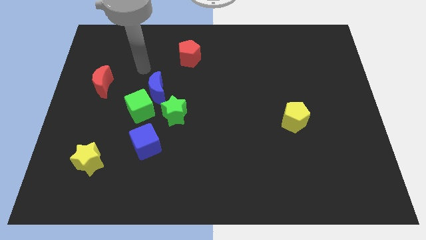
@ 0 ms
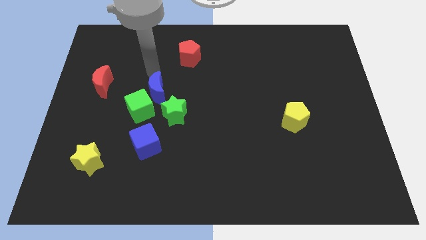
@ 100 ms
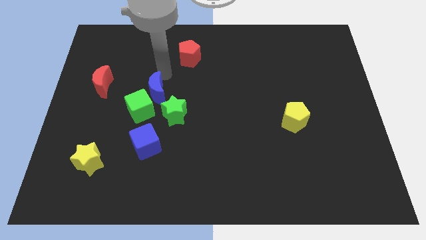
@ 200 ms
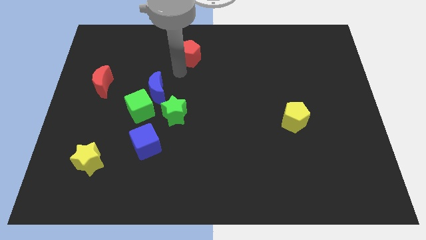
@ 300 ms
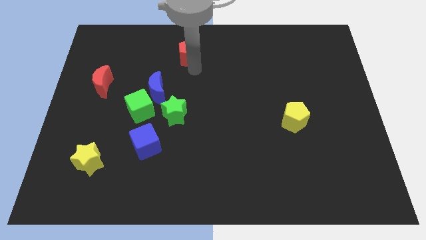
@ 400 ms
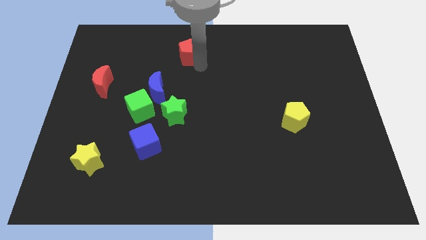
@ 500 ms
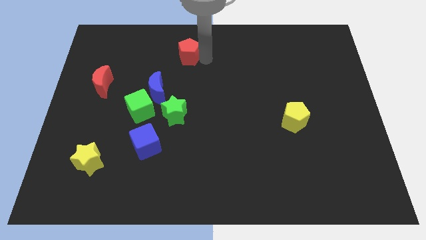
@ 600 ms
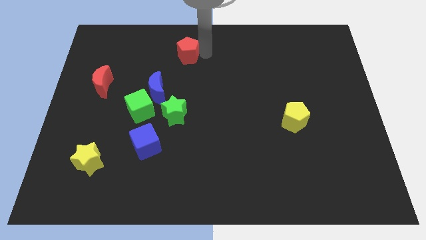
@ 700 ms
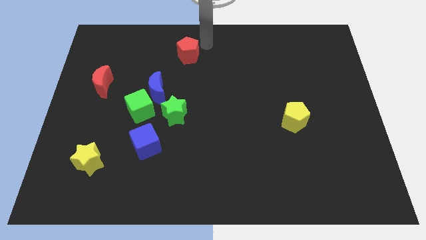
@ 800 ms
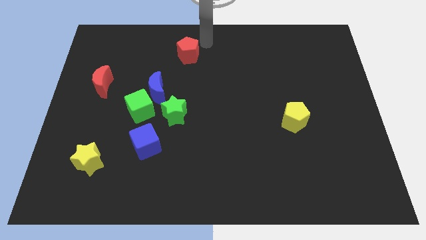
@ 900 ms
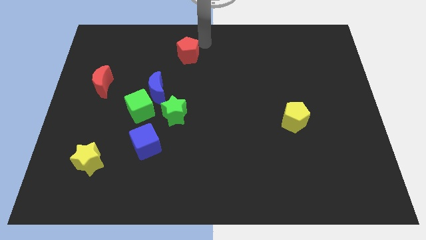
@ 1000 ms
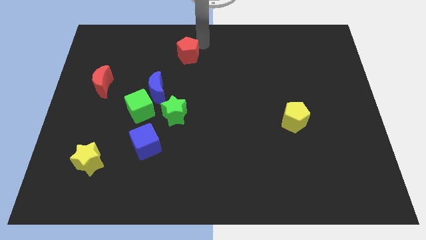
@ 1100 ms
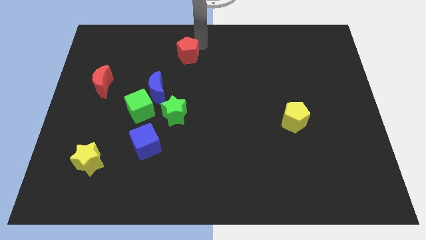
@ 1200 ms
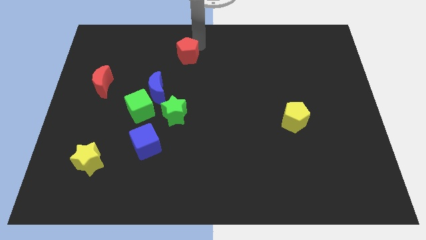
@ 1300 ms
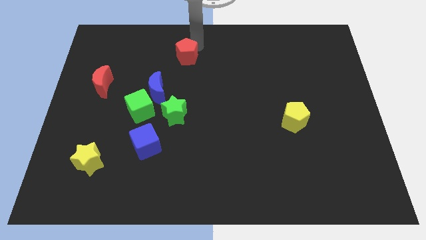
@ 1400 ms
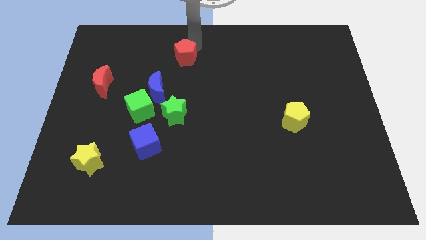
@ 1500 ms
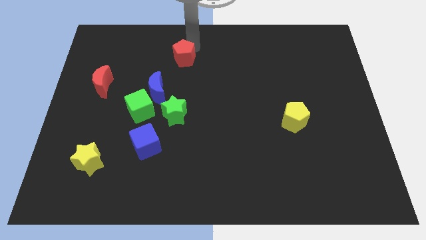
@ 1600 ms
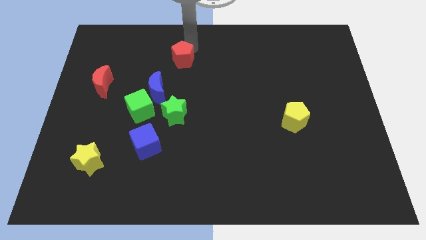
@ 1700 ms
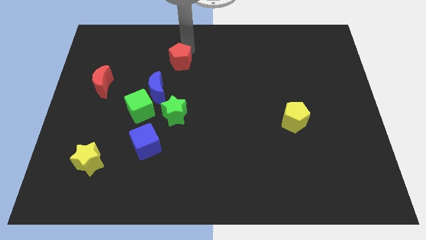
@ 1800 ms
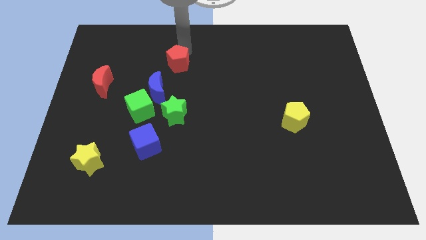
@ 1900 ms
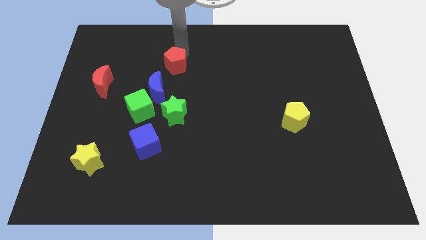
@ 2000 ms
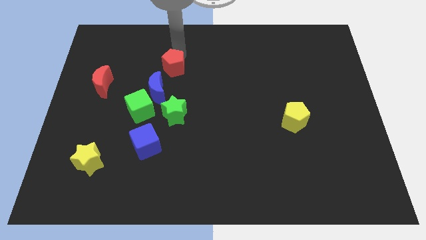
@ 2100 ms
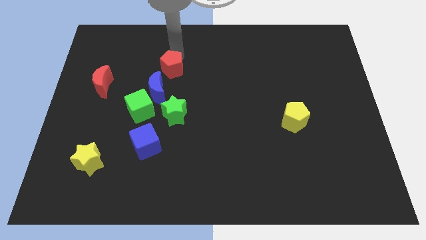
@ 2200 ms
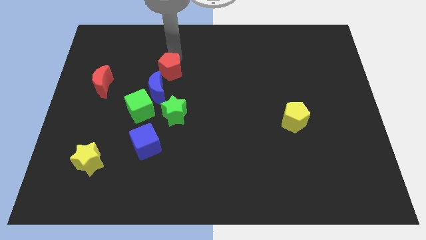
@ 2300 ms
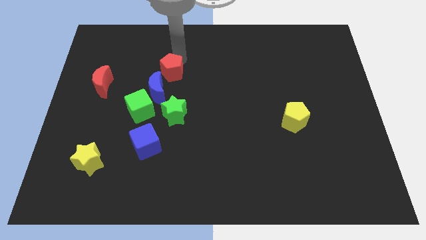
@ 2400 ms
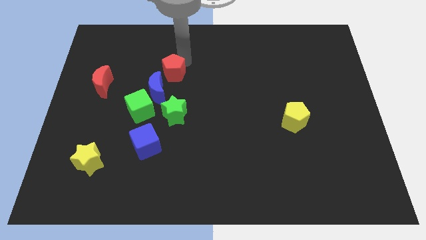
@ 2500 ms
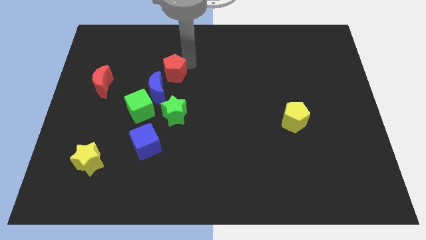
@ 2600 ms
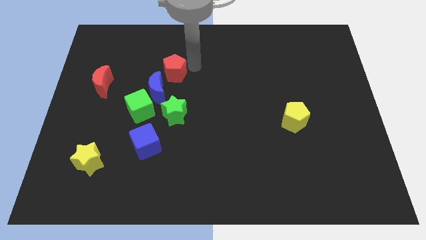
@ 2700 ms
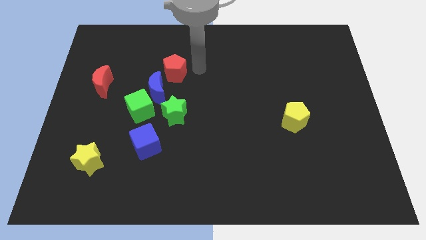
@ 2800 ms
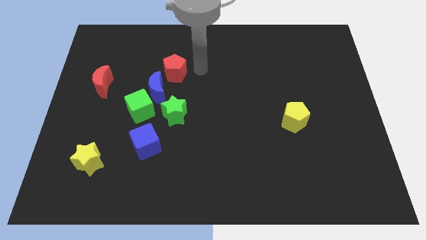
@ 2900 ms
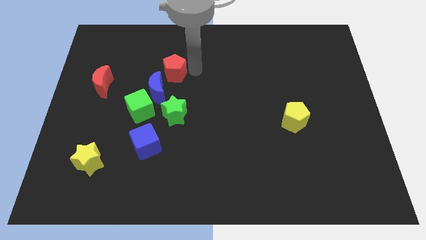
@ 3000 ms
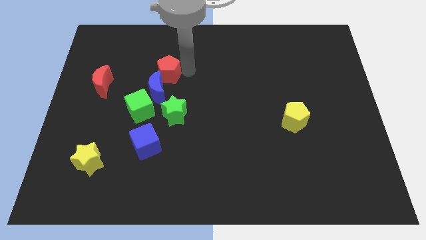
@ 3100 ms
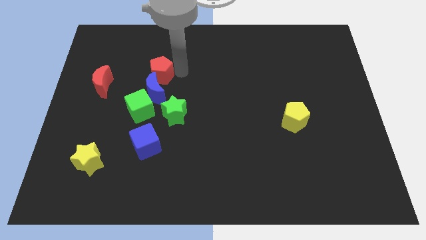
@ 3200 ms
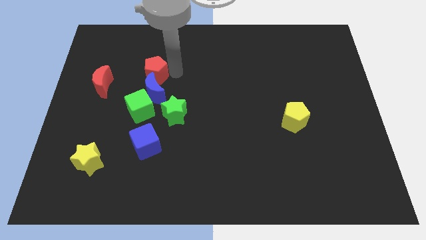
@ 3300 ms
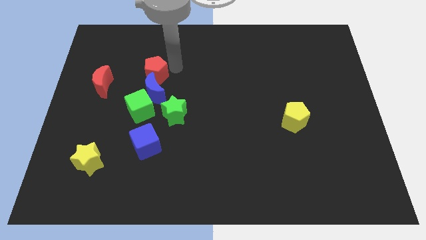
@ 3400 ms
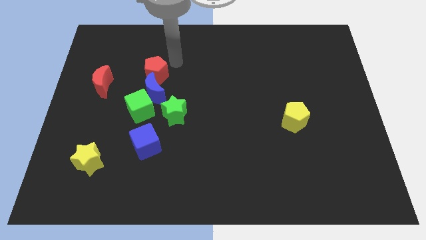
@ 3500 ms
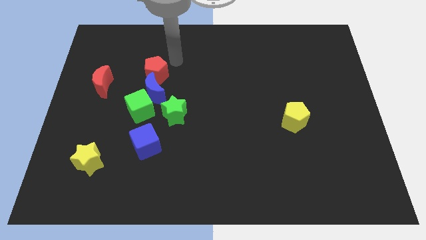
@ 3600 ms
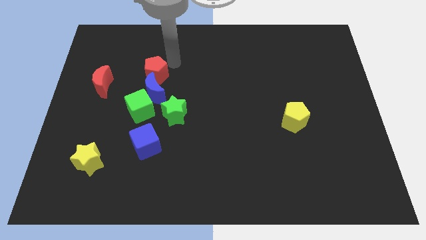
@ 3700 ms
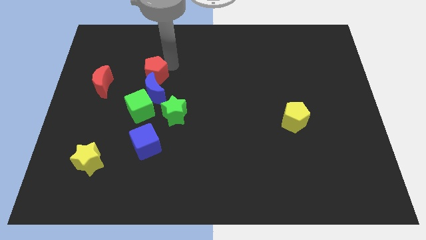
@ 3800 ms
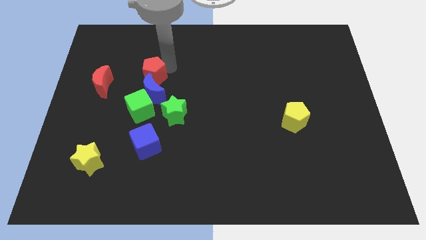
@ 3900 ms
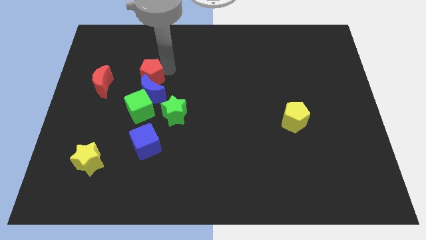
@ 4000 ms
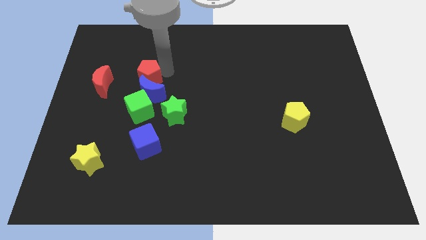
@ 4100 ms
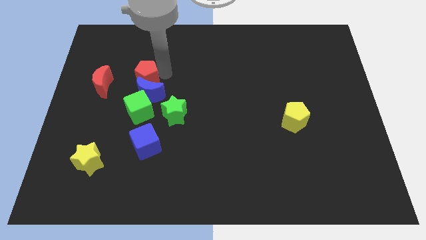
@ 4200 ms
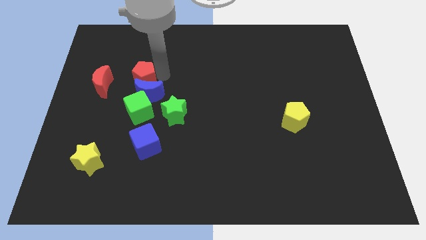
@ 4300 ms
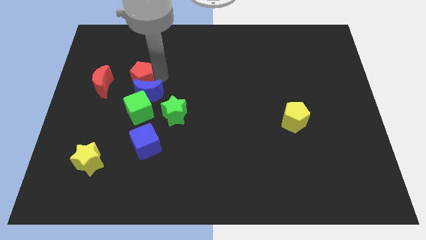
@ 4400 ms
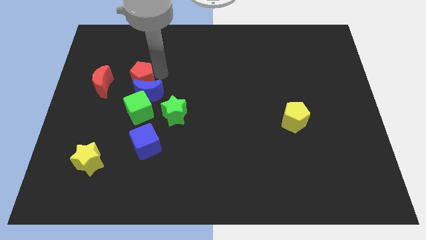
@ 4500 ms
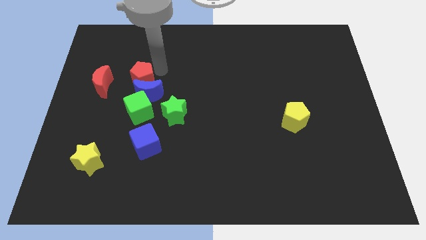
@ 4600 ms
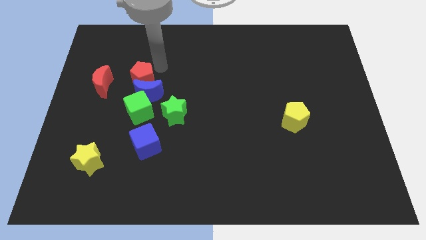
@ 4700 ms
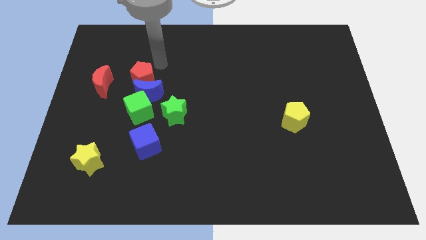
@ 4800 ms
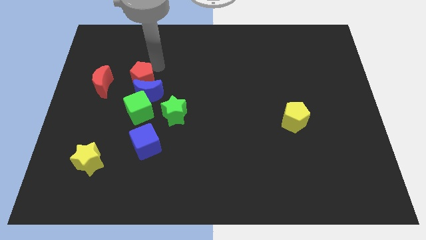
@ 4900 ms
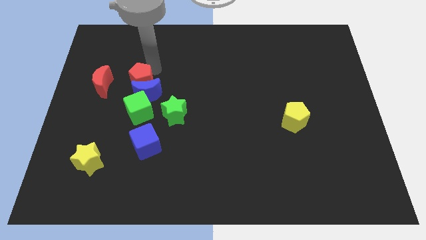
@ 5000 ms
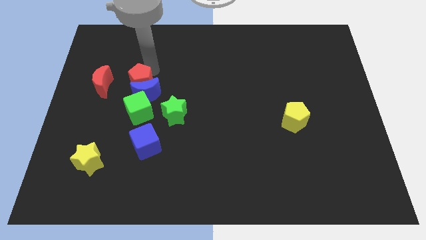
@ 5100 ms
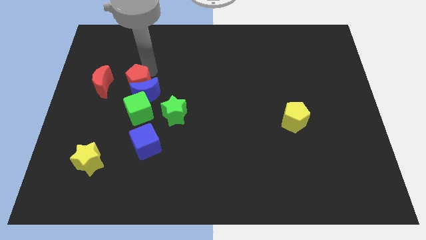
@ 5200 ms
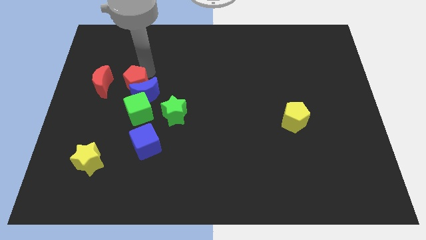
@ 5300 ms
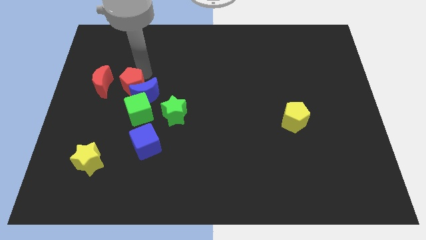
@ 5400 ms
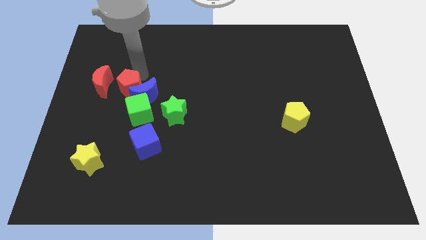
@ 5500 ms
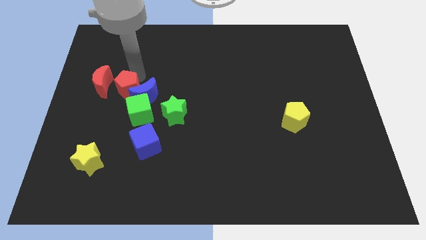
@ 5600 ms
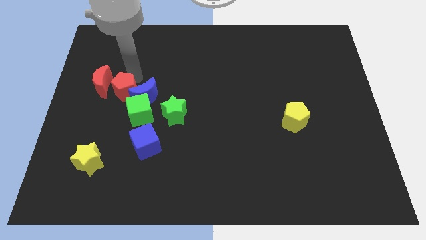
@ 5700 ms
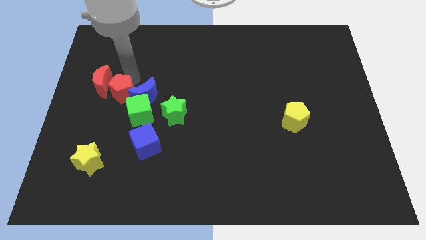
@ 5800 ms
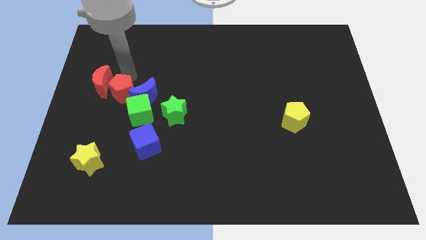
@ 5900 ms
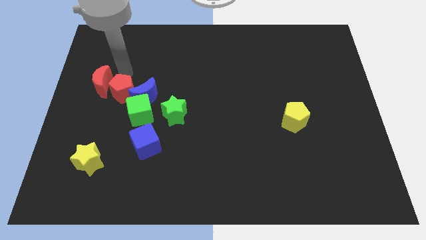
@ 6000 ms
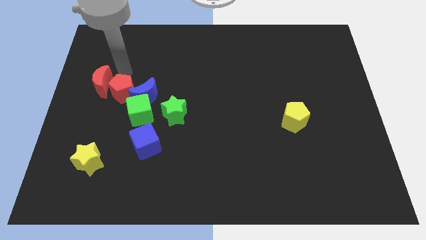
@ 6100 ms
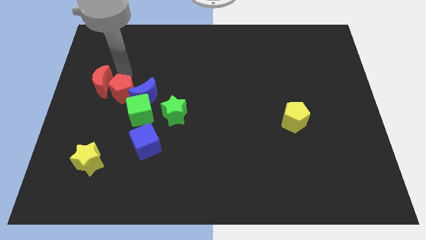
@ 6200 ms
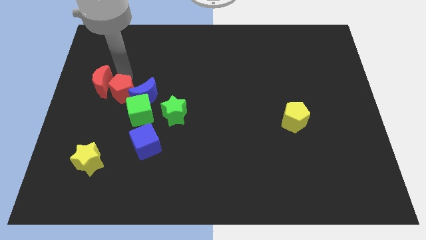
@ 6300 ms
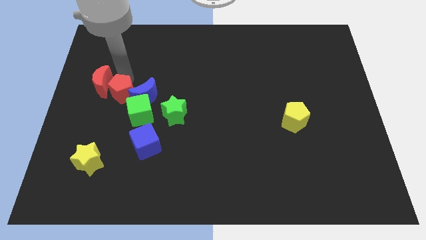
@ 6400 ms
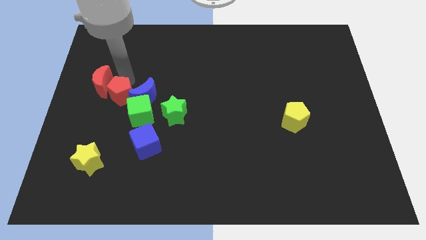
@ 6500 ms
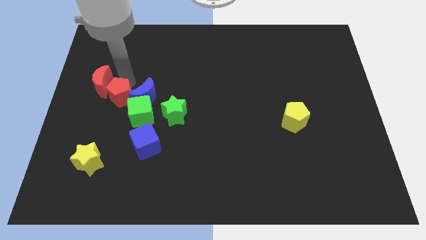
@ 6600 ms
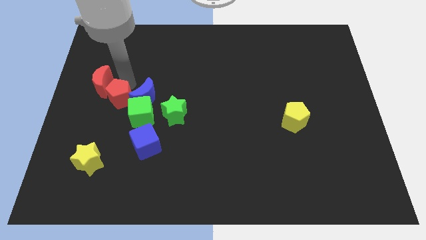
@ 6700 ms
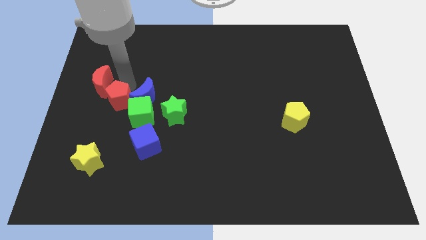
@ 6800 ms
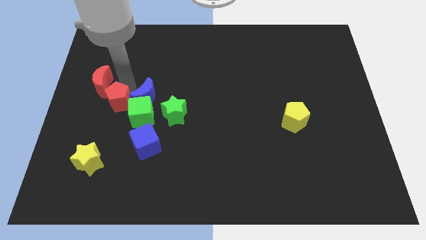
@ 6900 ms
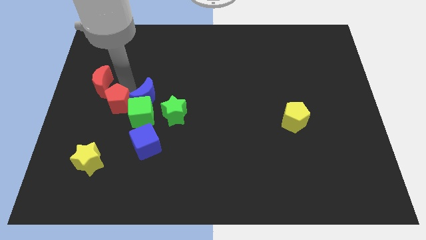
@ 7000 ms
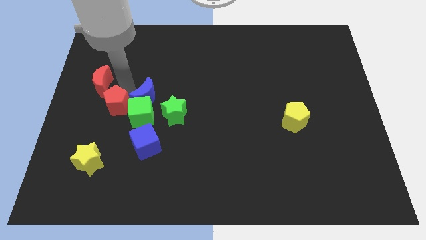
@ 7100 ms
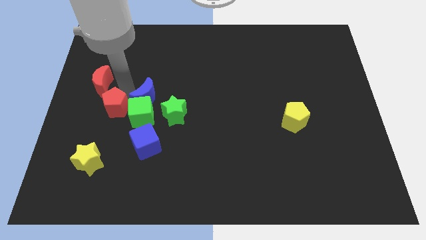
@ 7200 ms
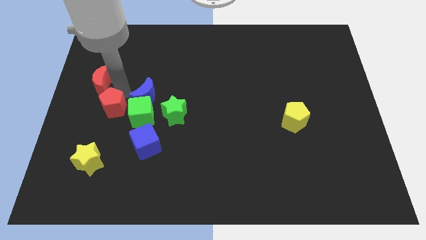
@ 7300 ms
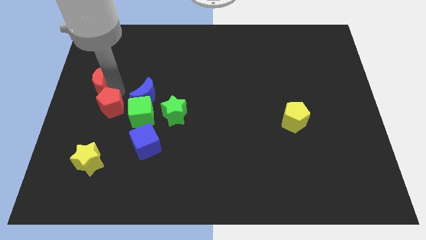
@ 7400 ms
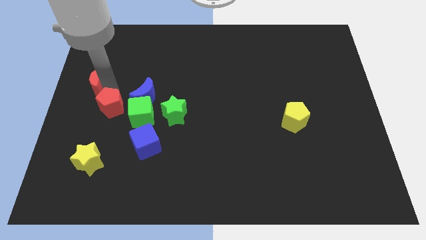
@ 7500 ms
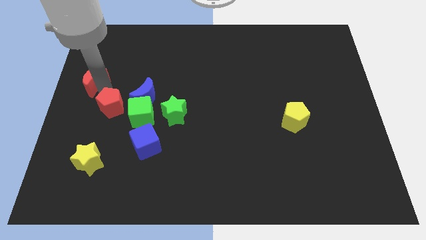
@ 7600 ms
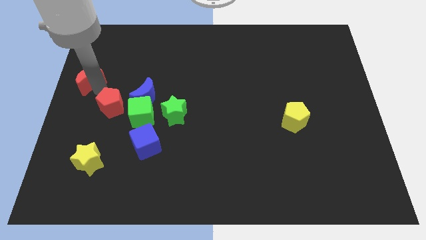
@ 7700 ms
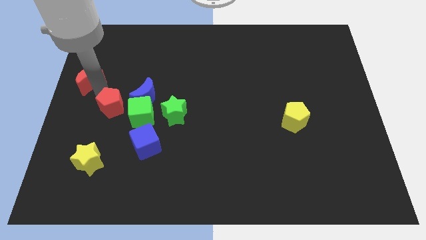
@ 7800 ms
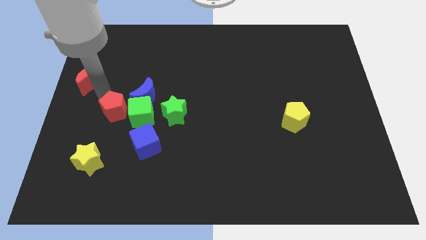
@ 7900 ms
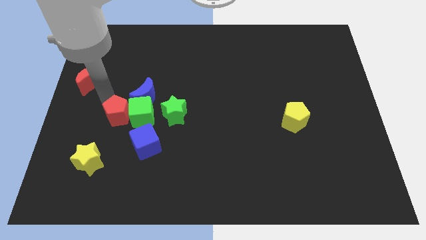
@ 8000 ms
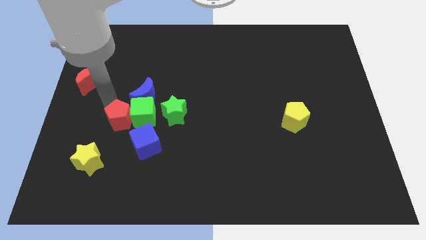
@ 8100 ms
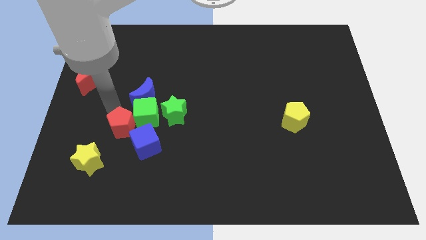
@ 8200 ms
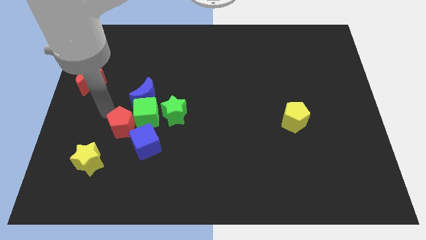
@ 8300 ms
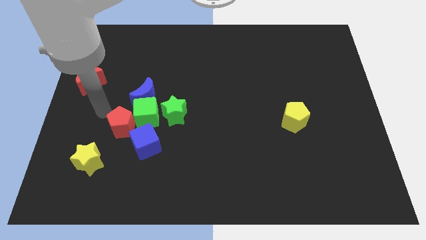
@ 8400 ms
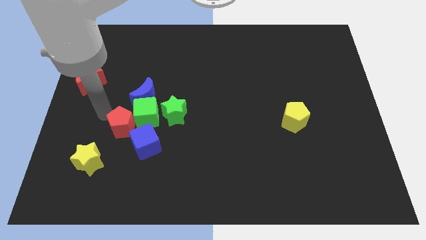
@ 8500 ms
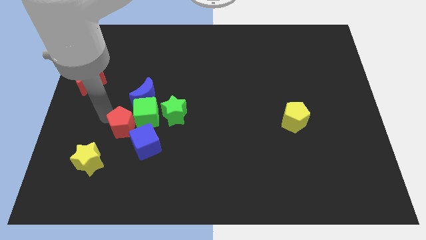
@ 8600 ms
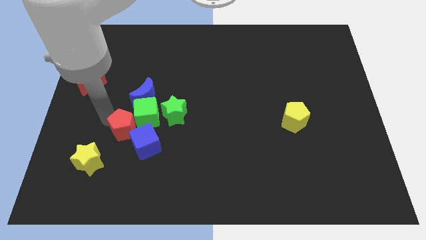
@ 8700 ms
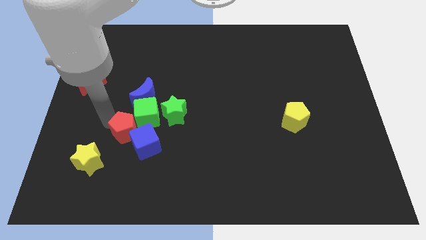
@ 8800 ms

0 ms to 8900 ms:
slide the red pentagon towards the blue cube
